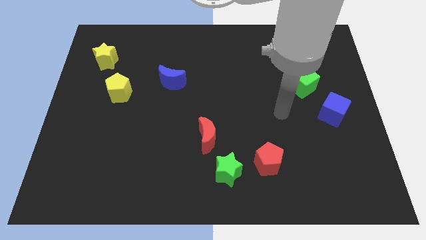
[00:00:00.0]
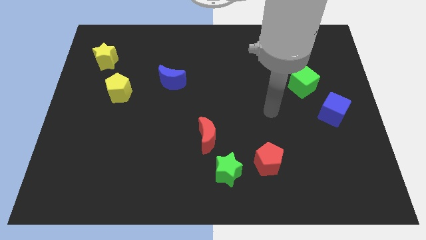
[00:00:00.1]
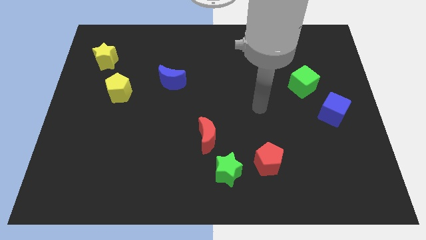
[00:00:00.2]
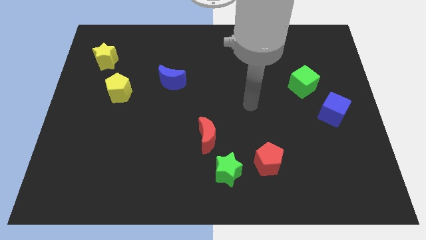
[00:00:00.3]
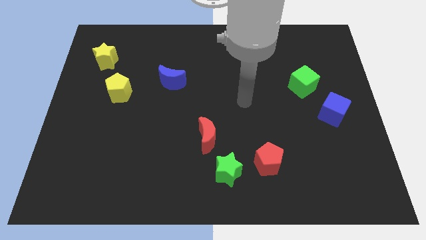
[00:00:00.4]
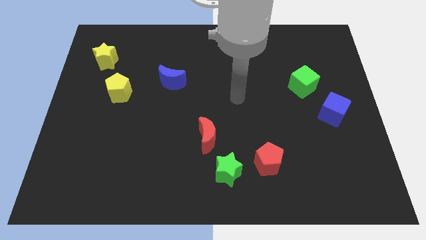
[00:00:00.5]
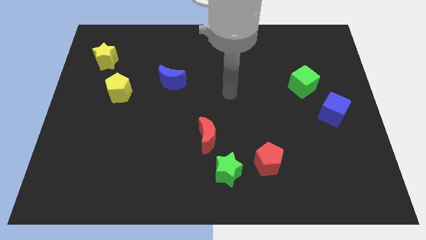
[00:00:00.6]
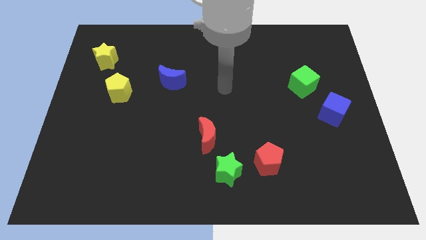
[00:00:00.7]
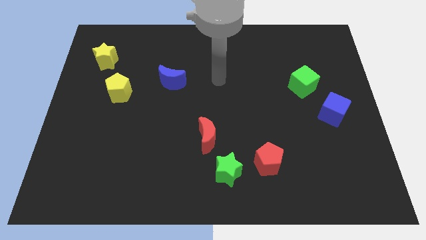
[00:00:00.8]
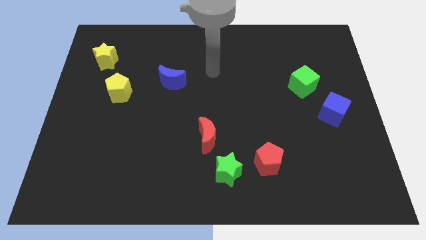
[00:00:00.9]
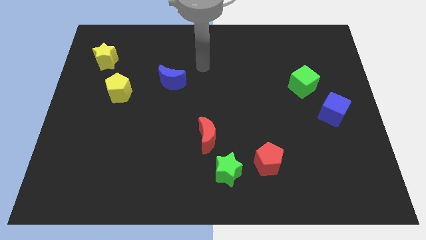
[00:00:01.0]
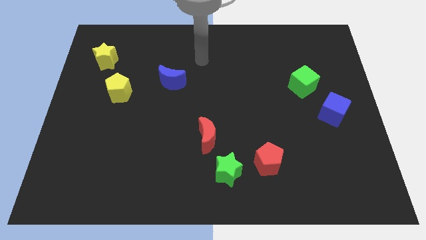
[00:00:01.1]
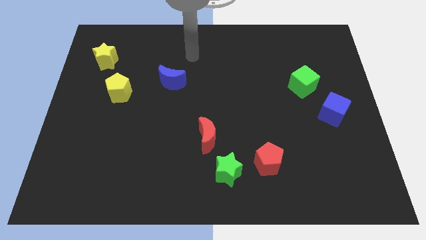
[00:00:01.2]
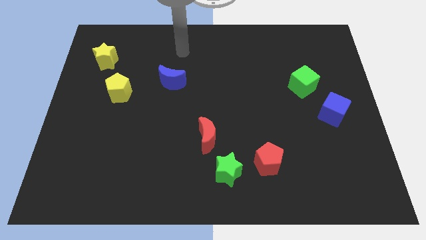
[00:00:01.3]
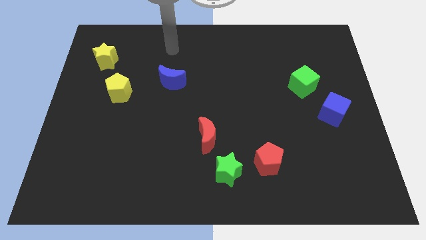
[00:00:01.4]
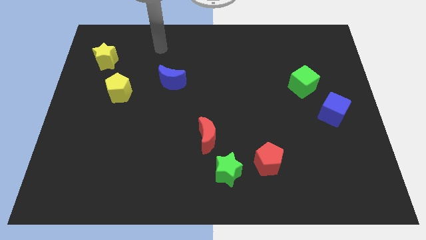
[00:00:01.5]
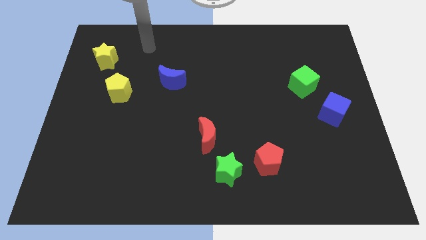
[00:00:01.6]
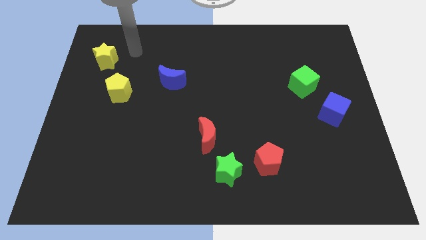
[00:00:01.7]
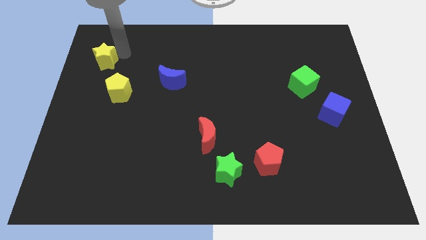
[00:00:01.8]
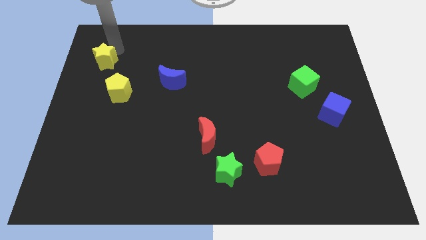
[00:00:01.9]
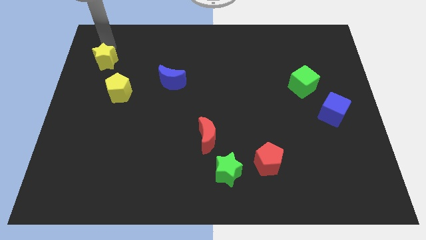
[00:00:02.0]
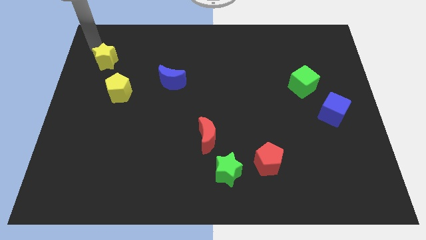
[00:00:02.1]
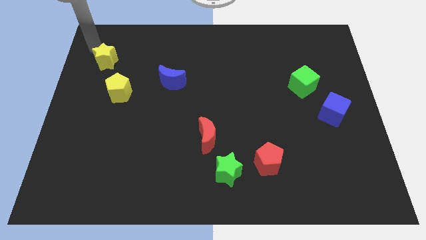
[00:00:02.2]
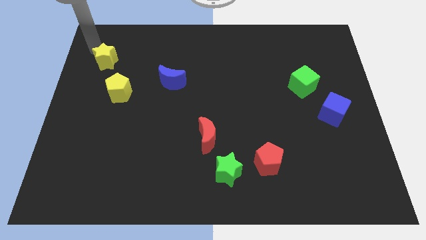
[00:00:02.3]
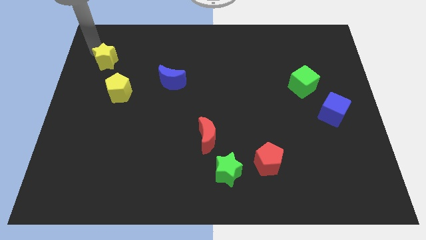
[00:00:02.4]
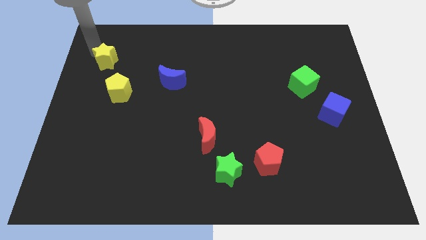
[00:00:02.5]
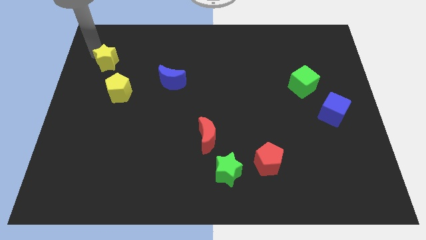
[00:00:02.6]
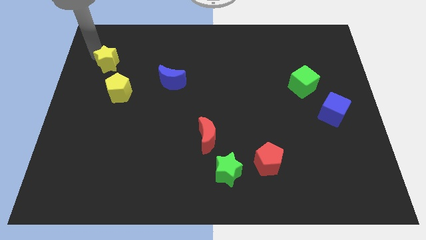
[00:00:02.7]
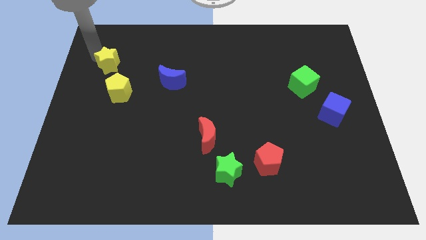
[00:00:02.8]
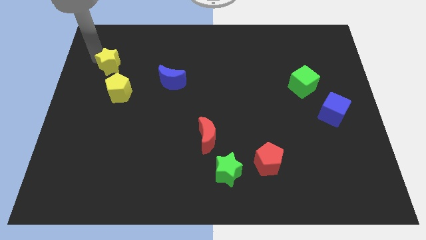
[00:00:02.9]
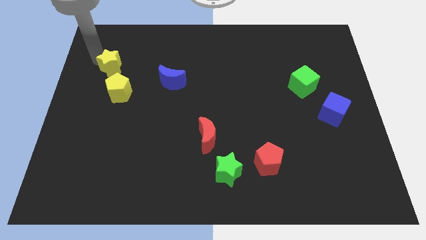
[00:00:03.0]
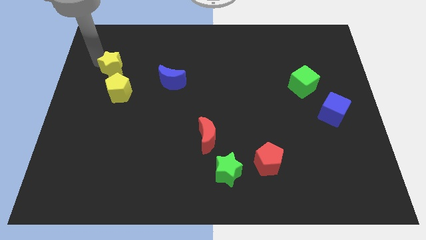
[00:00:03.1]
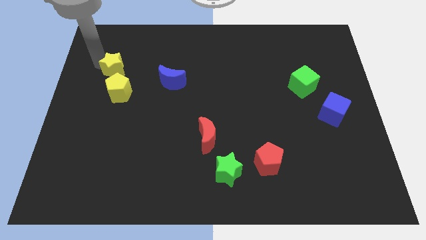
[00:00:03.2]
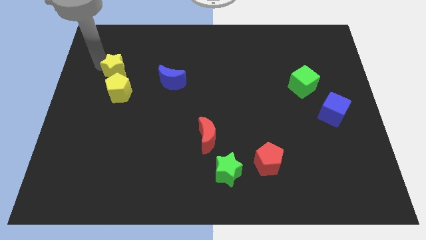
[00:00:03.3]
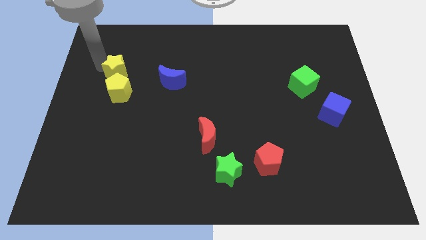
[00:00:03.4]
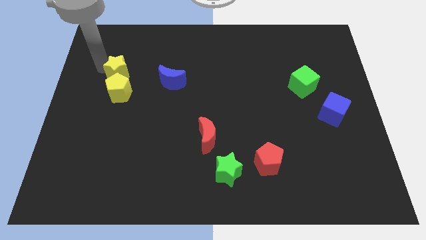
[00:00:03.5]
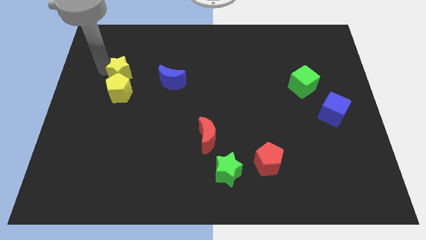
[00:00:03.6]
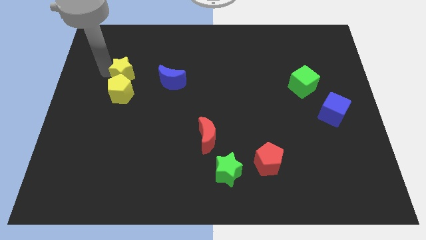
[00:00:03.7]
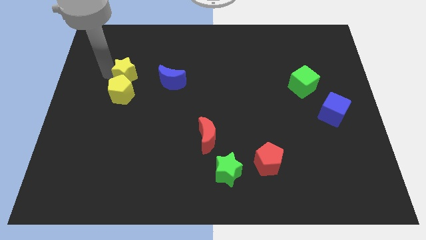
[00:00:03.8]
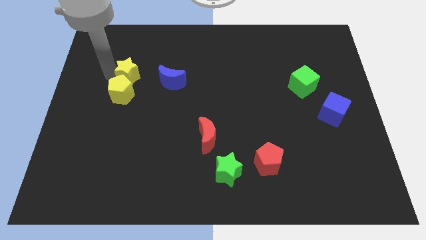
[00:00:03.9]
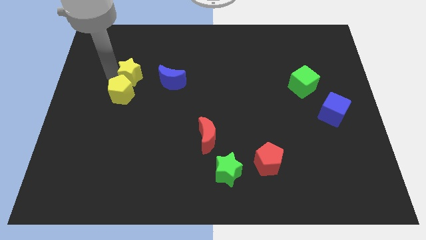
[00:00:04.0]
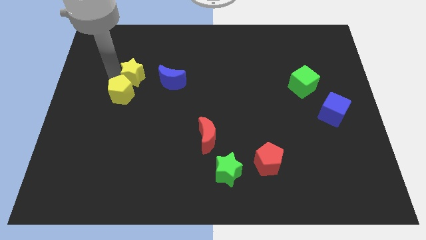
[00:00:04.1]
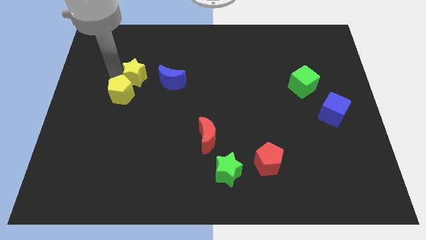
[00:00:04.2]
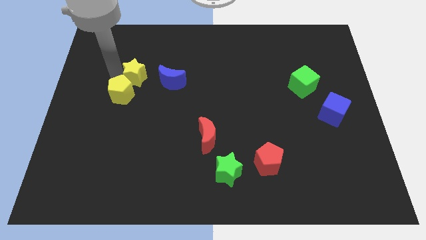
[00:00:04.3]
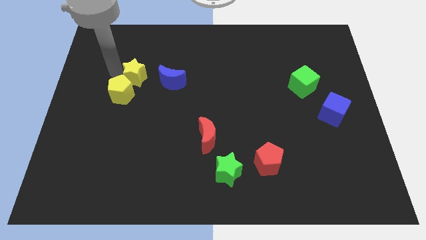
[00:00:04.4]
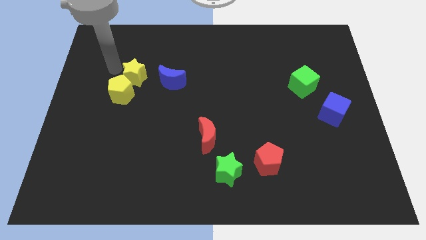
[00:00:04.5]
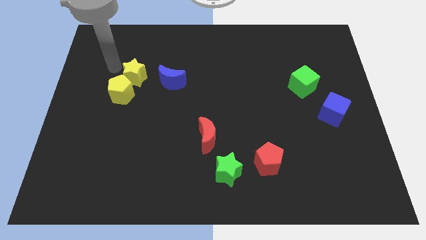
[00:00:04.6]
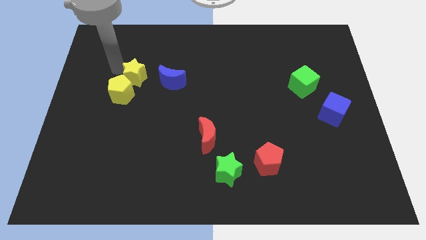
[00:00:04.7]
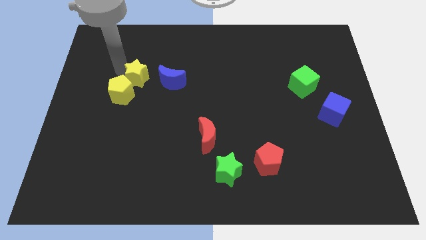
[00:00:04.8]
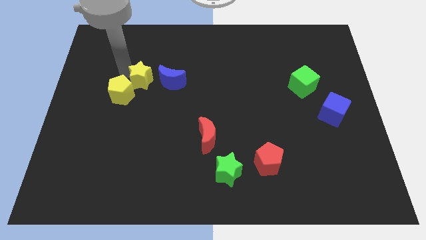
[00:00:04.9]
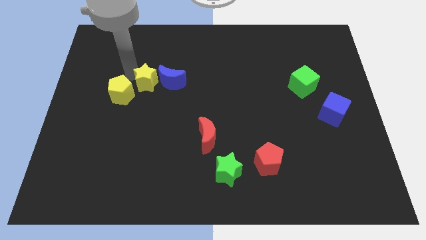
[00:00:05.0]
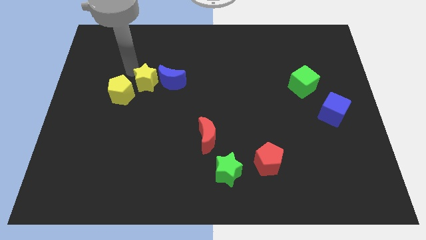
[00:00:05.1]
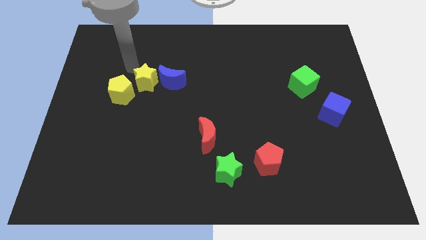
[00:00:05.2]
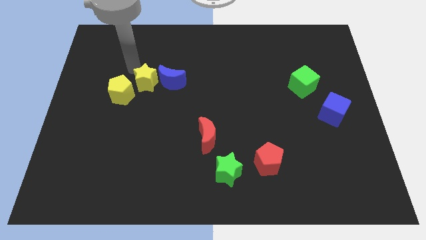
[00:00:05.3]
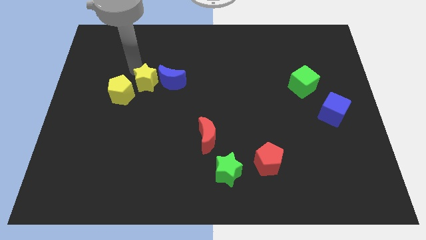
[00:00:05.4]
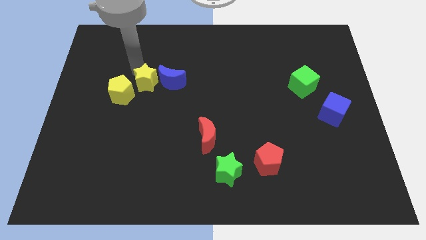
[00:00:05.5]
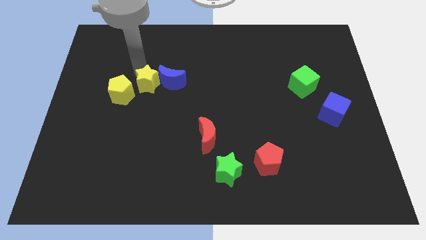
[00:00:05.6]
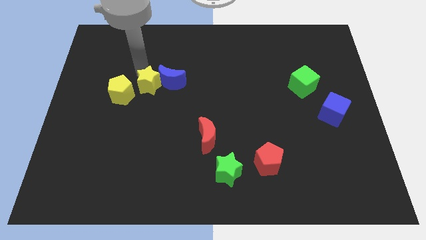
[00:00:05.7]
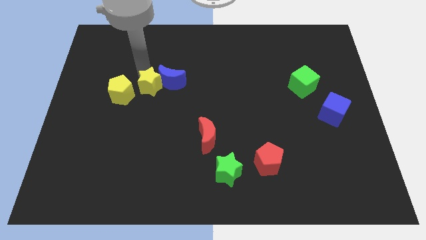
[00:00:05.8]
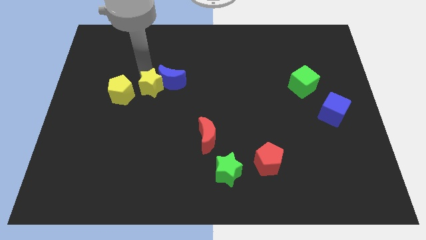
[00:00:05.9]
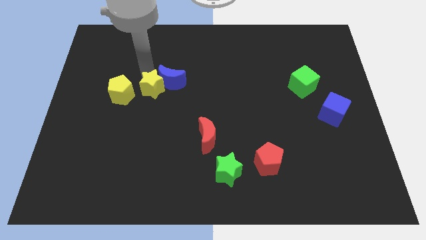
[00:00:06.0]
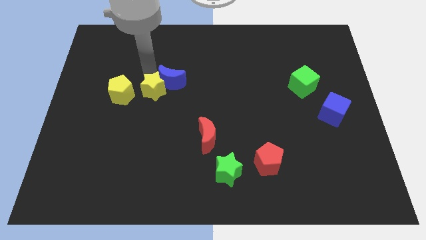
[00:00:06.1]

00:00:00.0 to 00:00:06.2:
push the yellow star to the bottom side of the blue moon
